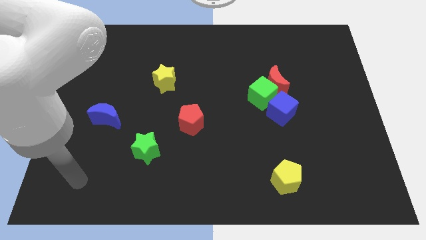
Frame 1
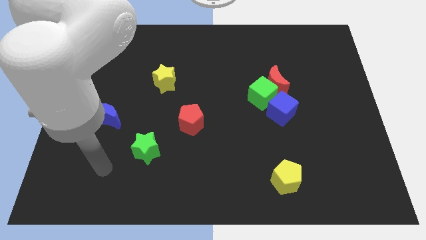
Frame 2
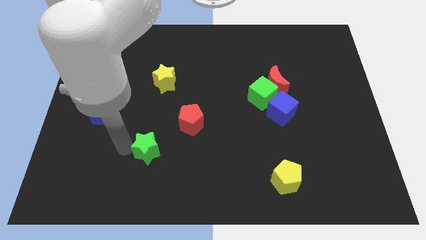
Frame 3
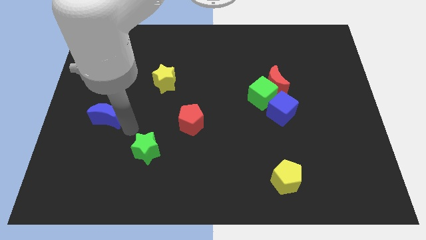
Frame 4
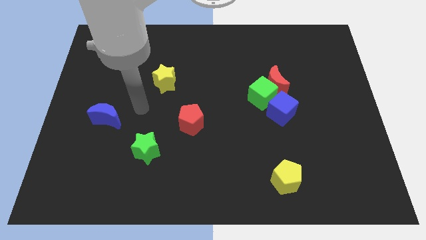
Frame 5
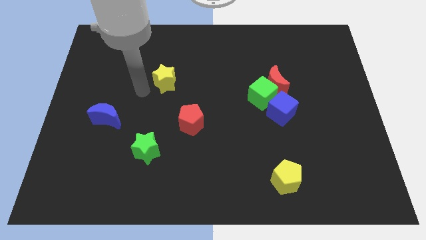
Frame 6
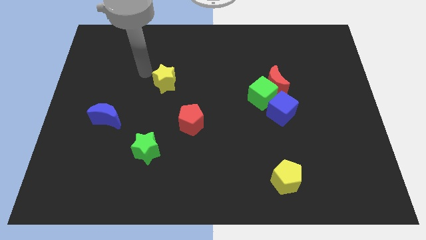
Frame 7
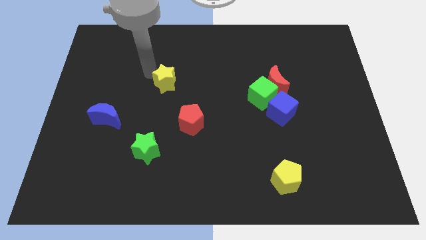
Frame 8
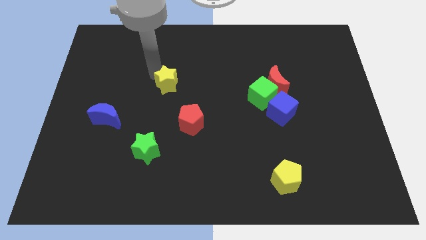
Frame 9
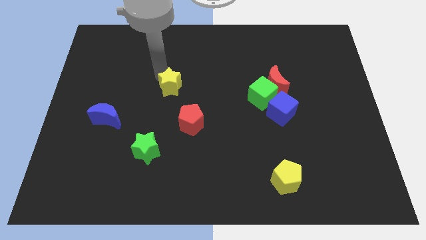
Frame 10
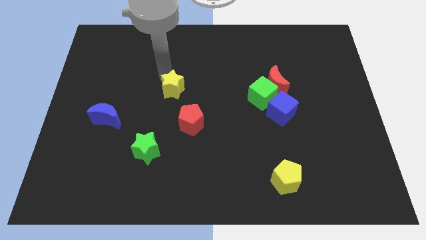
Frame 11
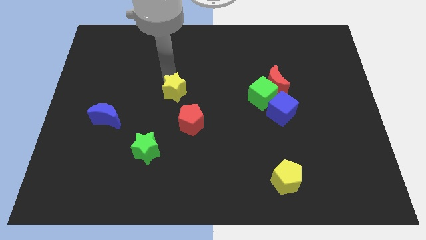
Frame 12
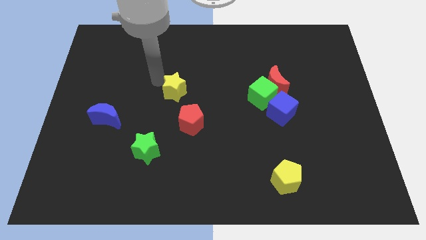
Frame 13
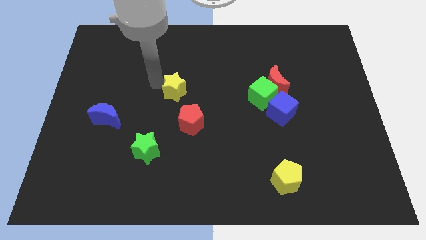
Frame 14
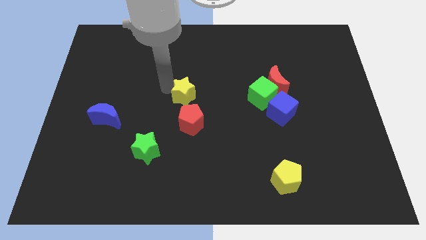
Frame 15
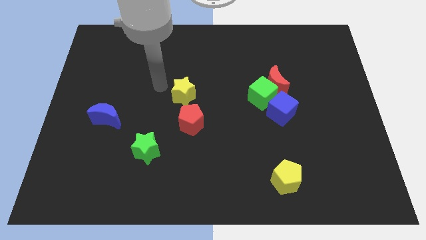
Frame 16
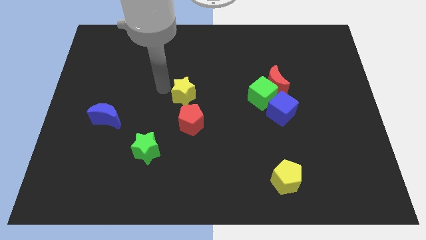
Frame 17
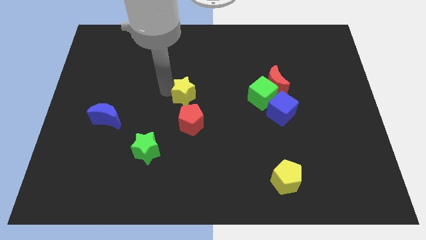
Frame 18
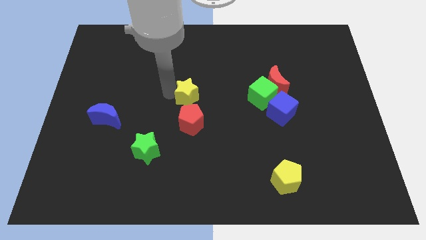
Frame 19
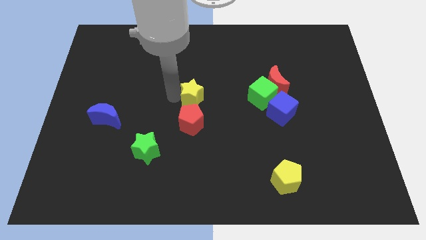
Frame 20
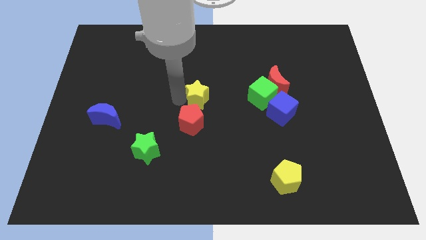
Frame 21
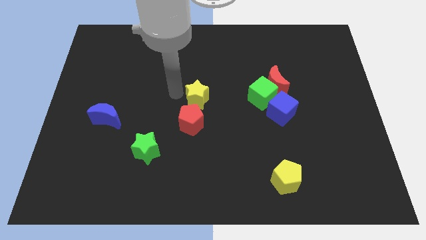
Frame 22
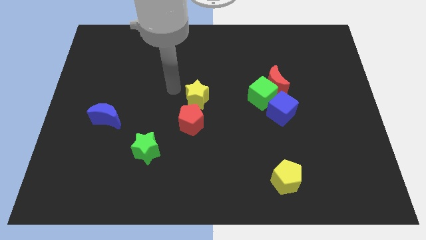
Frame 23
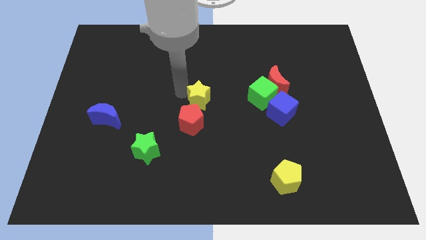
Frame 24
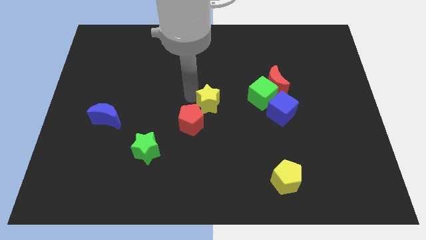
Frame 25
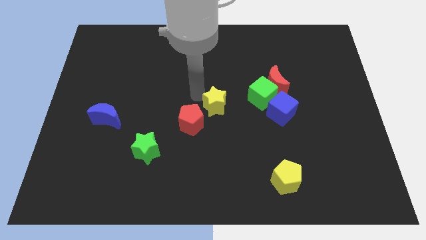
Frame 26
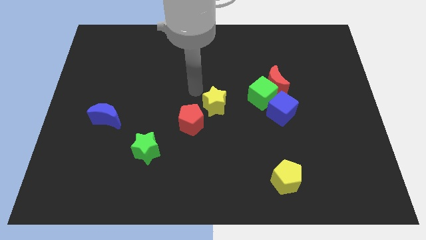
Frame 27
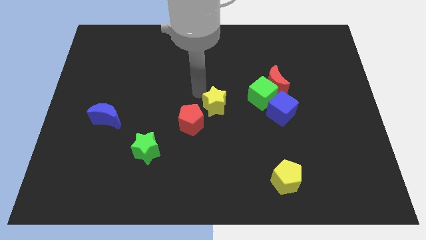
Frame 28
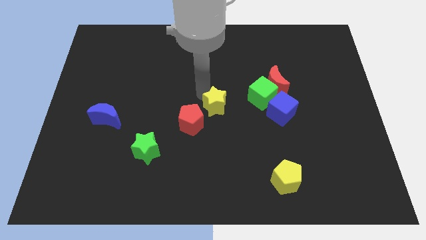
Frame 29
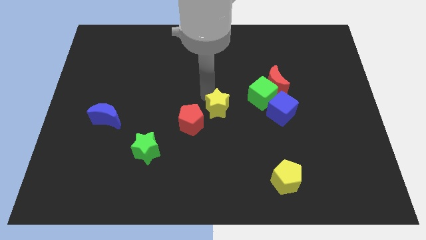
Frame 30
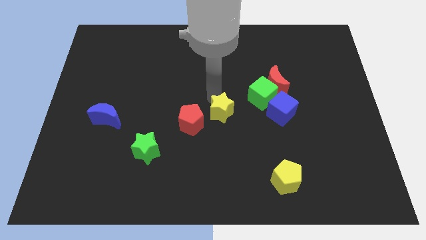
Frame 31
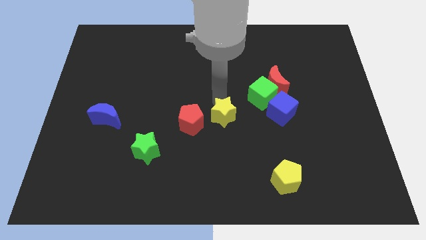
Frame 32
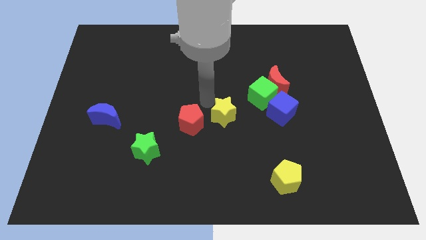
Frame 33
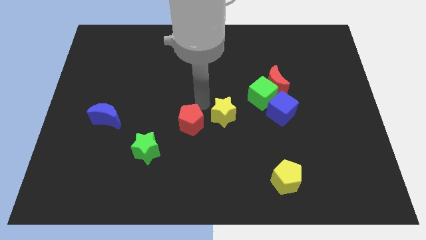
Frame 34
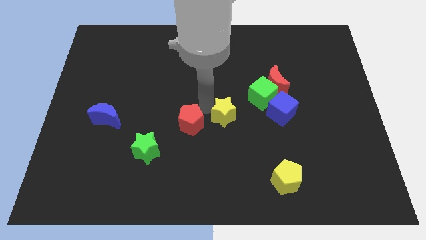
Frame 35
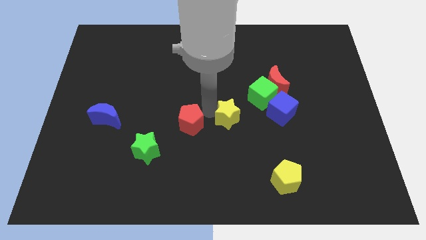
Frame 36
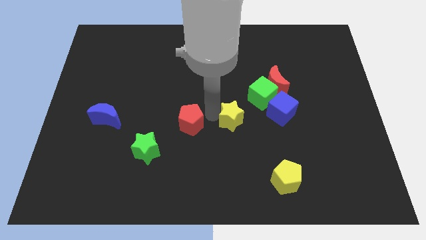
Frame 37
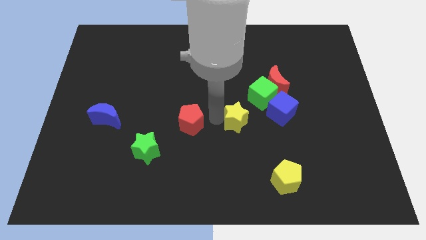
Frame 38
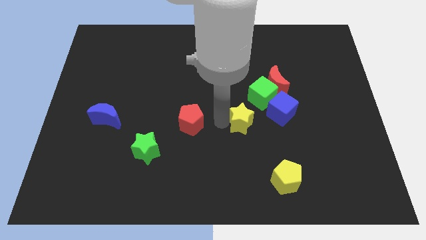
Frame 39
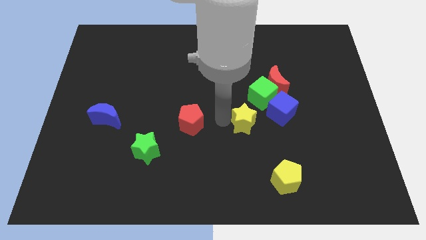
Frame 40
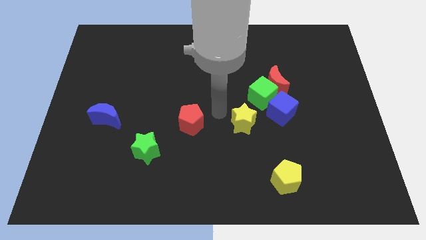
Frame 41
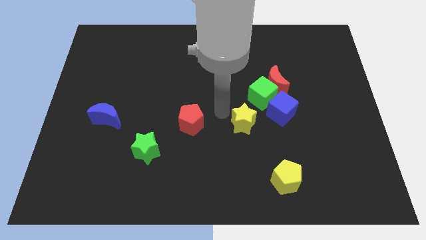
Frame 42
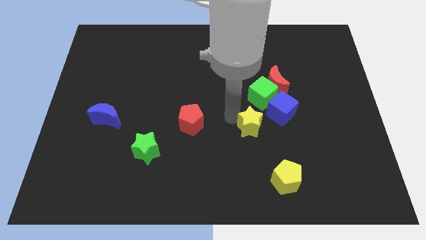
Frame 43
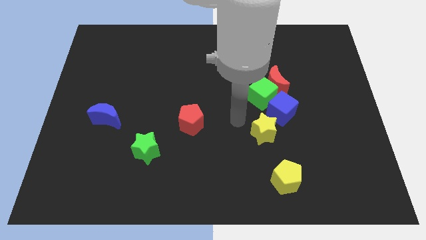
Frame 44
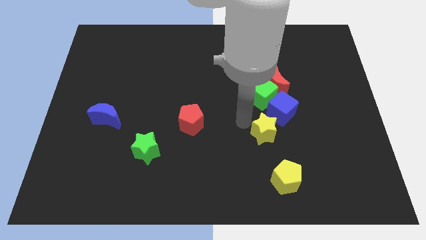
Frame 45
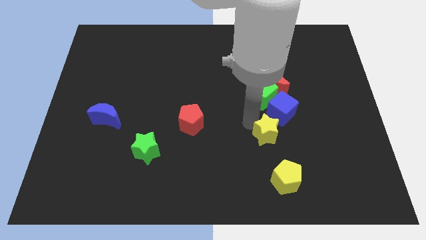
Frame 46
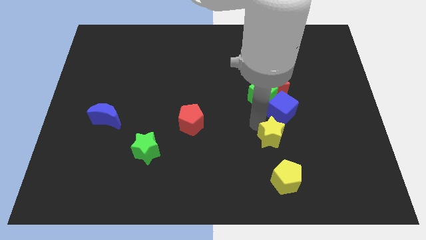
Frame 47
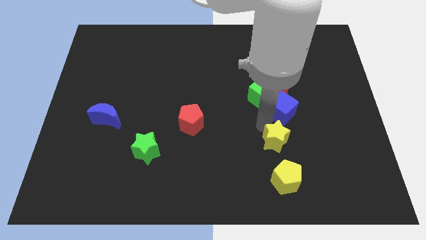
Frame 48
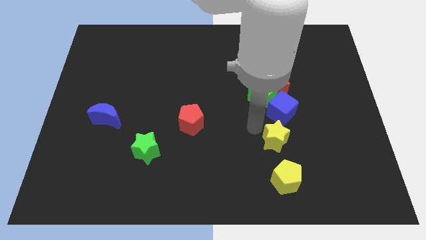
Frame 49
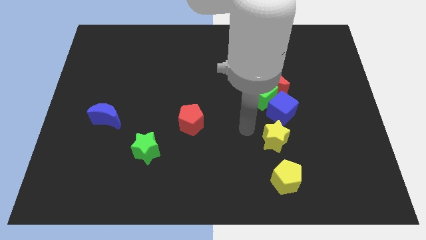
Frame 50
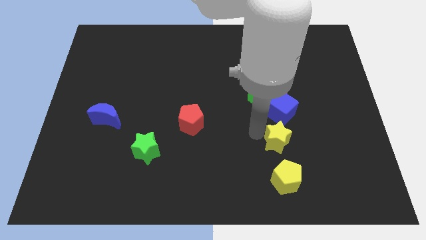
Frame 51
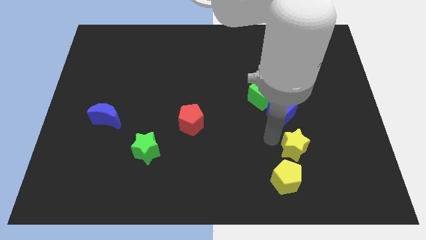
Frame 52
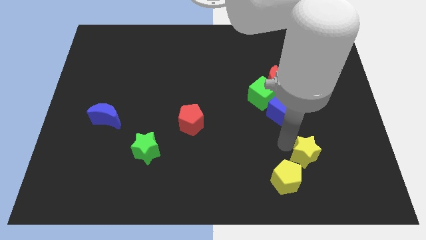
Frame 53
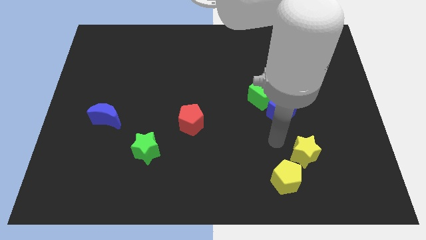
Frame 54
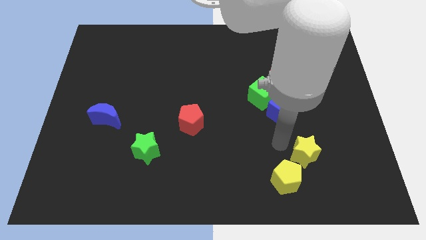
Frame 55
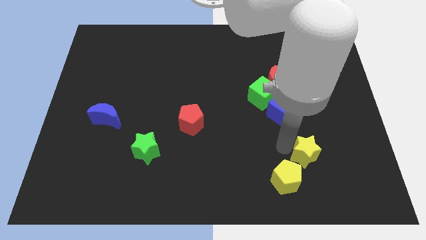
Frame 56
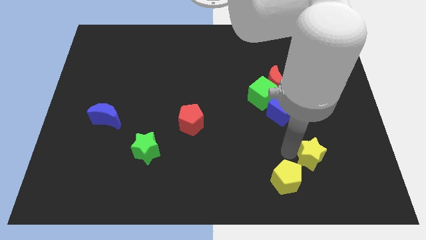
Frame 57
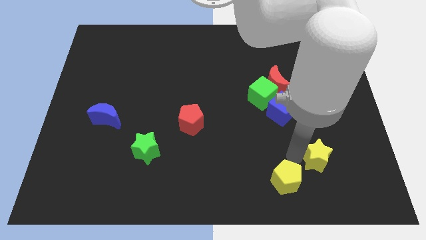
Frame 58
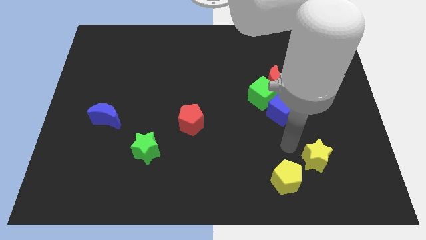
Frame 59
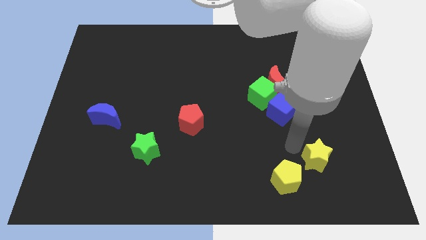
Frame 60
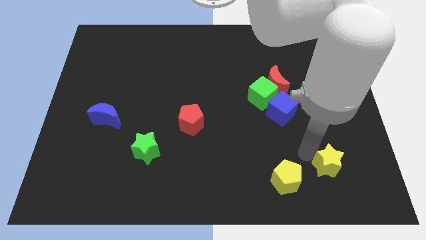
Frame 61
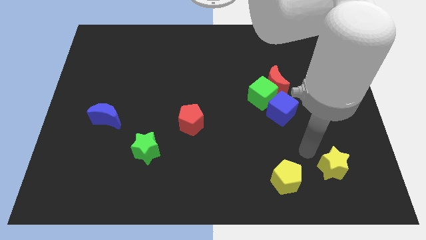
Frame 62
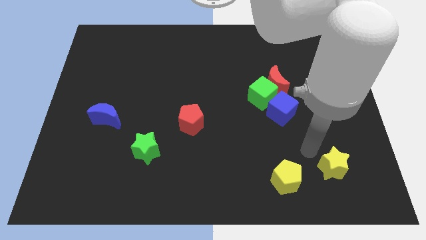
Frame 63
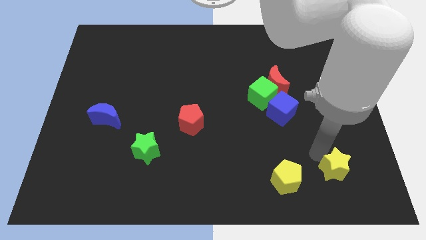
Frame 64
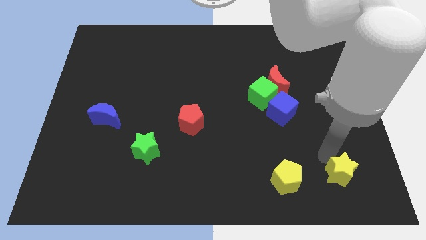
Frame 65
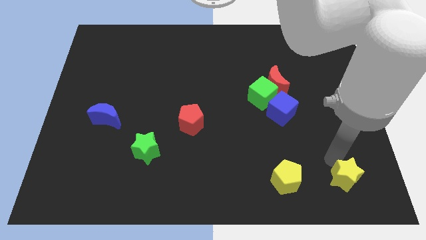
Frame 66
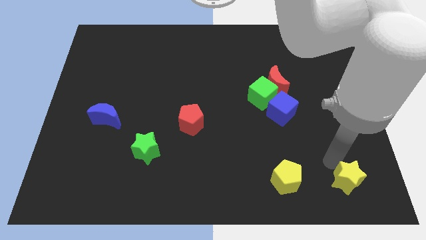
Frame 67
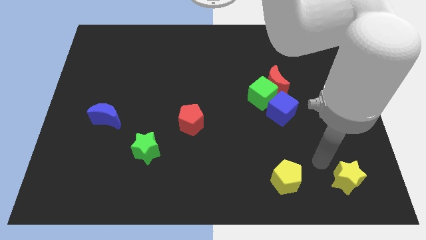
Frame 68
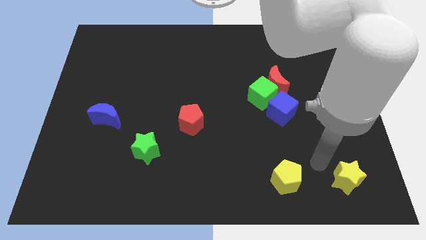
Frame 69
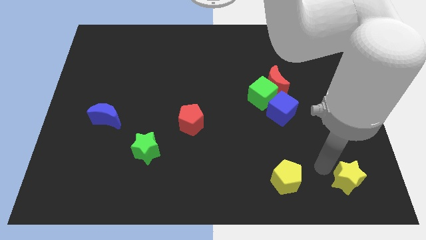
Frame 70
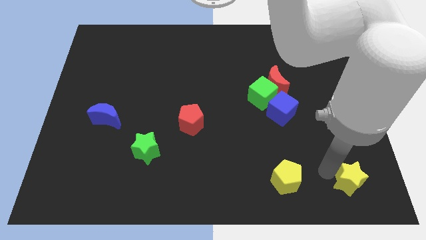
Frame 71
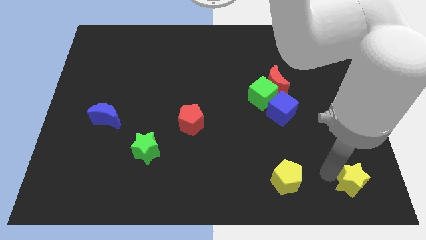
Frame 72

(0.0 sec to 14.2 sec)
push the yellow star to the bottom right of the board
